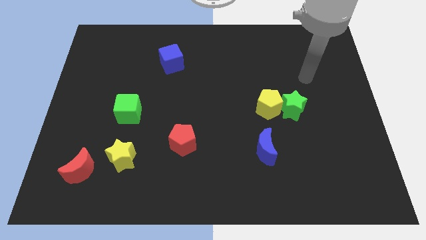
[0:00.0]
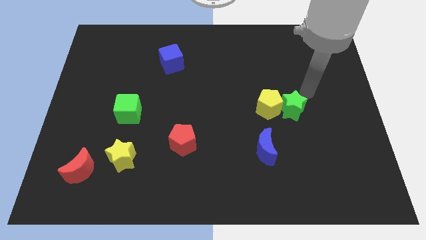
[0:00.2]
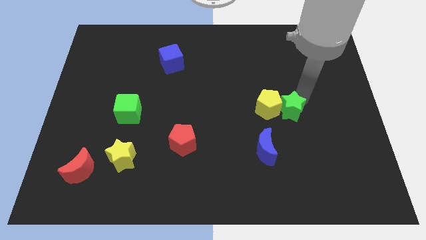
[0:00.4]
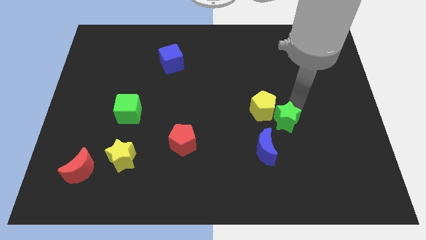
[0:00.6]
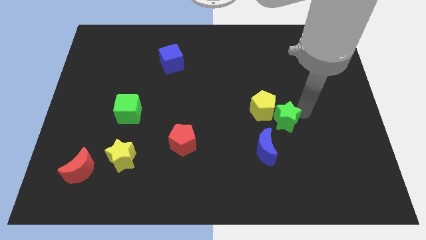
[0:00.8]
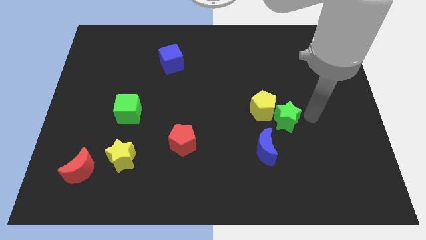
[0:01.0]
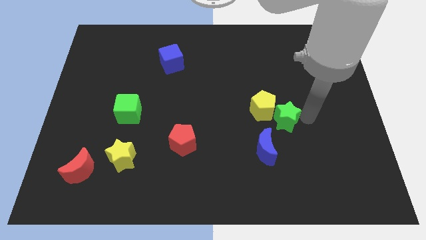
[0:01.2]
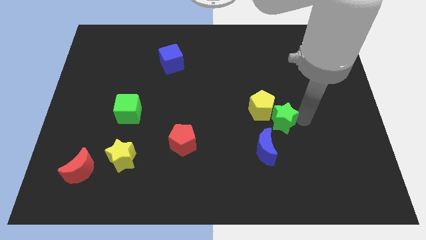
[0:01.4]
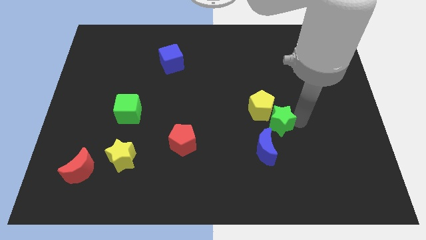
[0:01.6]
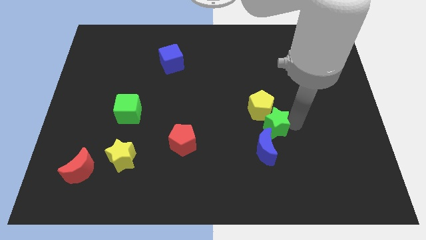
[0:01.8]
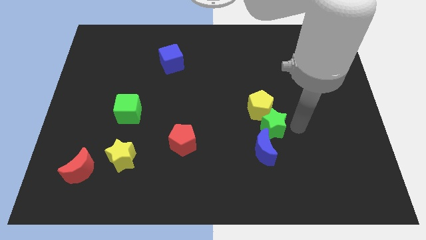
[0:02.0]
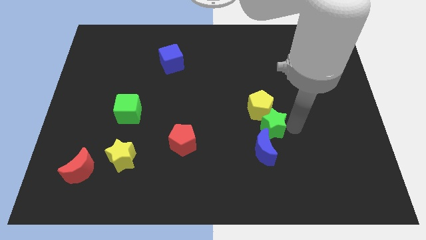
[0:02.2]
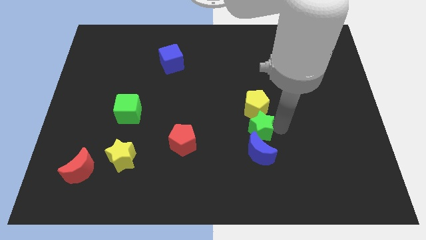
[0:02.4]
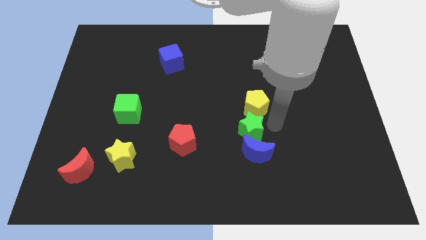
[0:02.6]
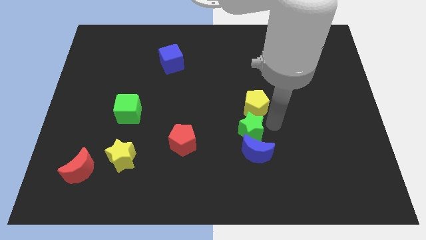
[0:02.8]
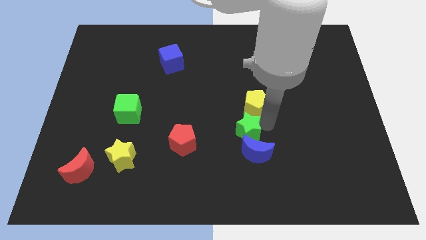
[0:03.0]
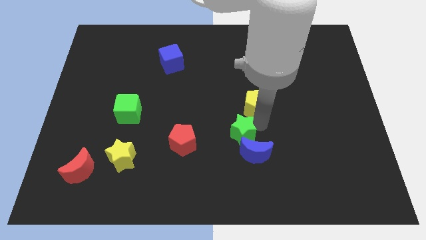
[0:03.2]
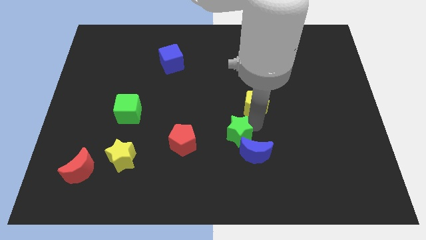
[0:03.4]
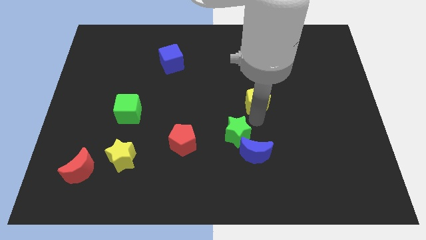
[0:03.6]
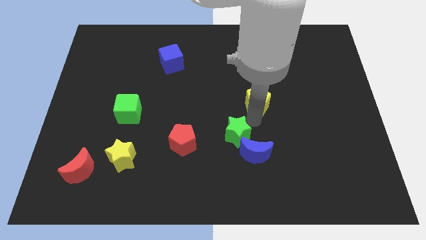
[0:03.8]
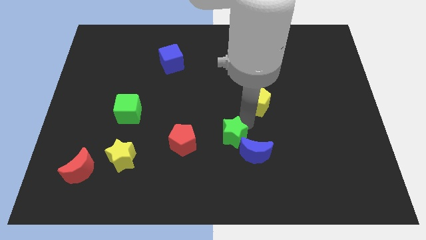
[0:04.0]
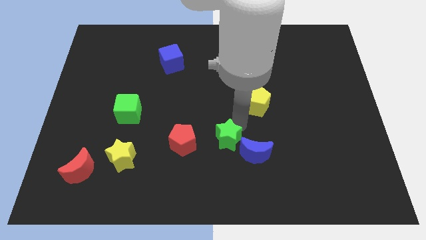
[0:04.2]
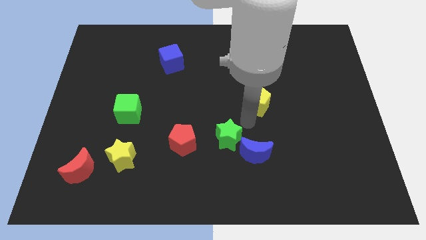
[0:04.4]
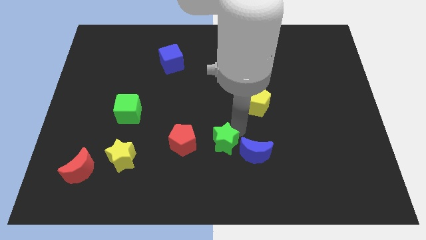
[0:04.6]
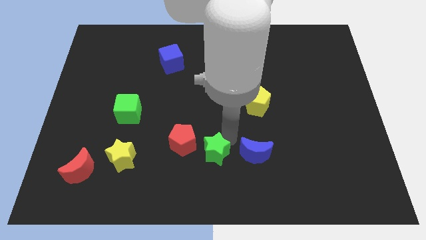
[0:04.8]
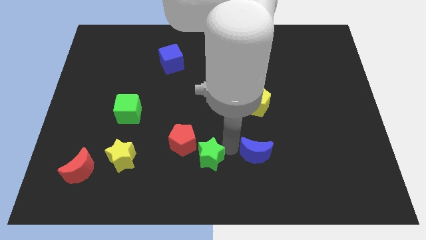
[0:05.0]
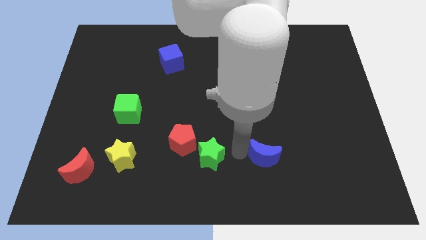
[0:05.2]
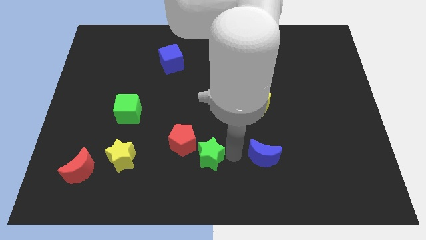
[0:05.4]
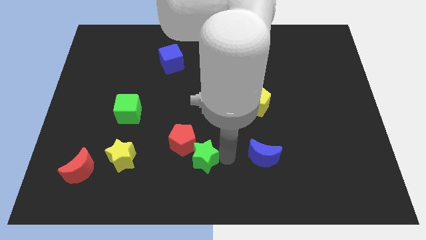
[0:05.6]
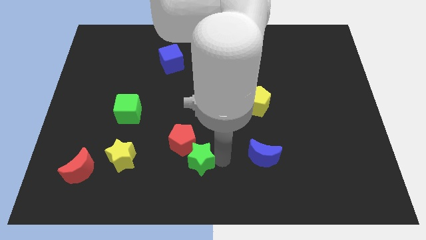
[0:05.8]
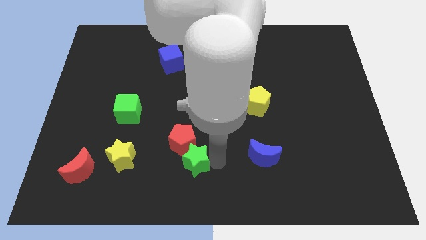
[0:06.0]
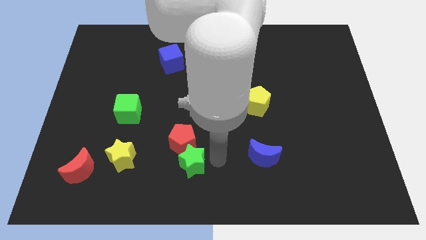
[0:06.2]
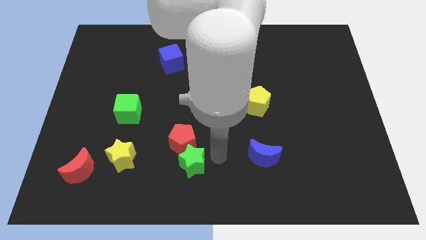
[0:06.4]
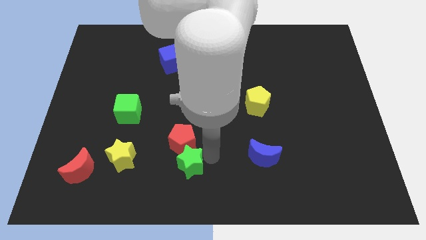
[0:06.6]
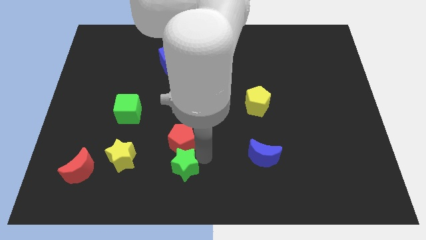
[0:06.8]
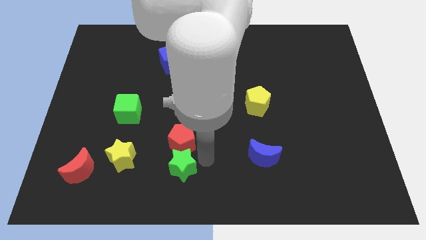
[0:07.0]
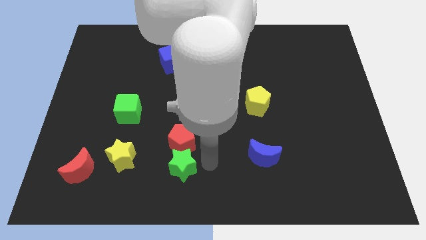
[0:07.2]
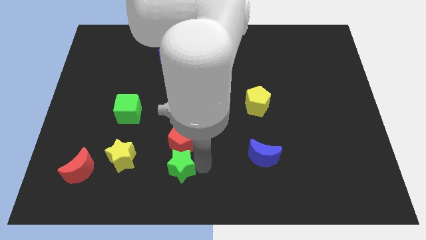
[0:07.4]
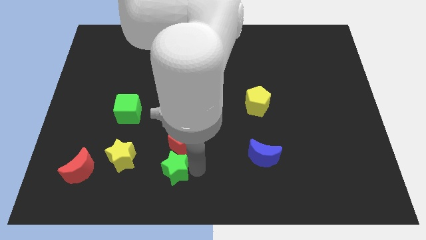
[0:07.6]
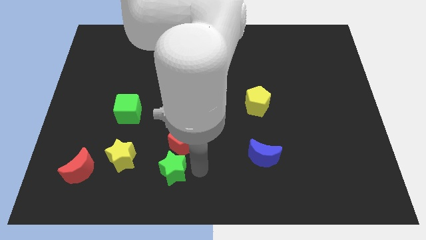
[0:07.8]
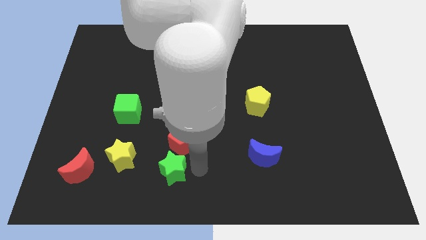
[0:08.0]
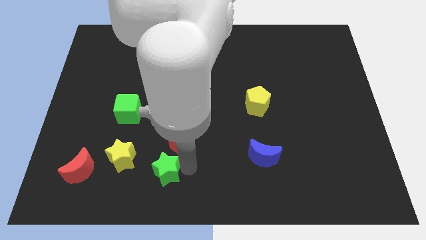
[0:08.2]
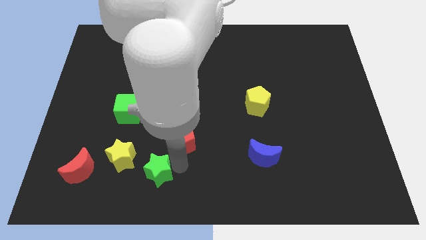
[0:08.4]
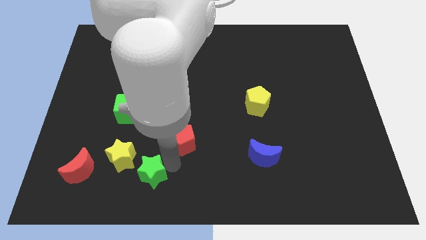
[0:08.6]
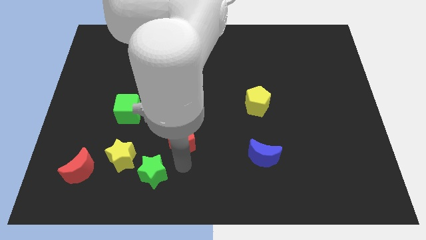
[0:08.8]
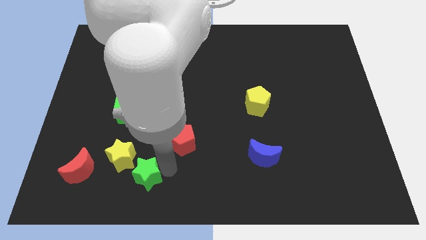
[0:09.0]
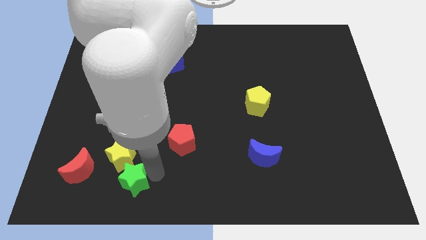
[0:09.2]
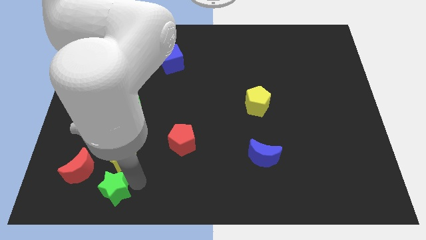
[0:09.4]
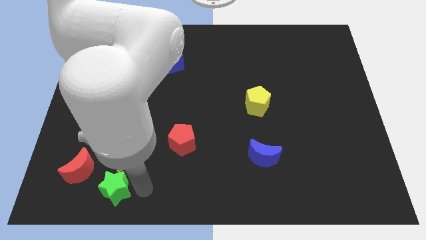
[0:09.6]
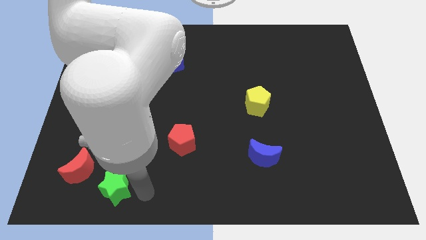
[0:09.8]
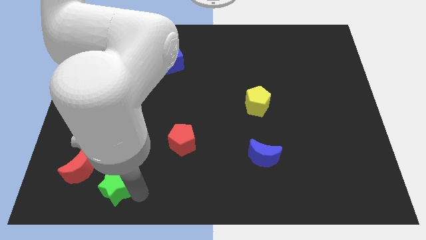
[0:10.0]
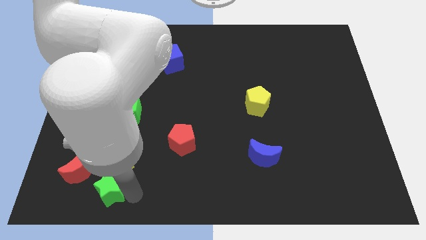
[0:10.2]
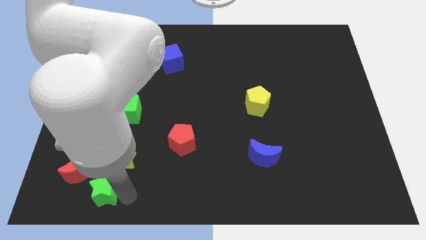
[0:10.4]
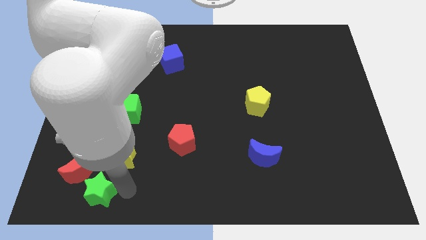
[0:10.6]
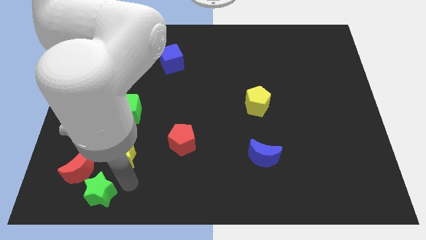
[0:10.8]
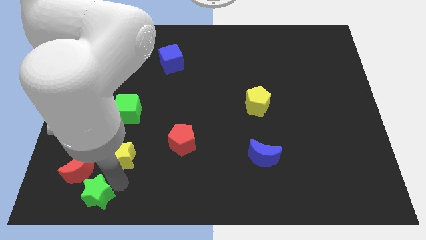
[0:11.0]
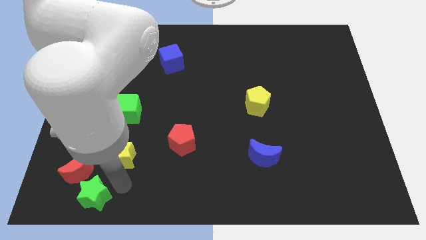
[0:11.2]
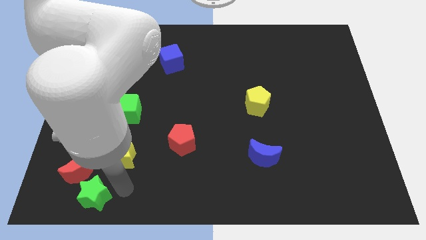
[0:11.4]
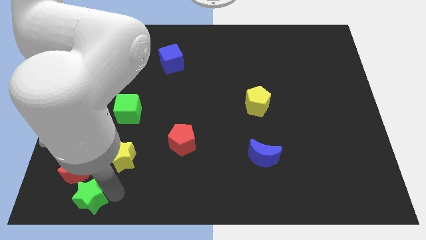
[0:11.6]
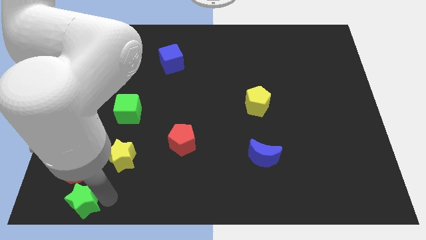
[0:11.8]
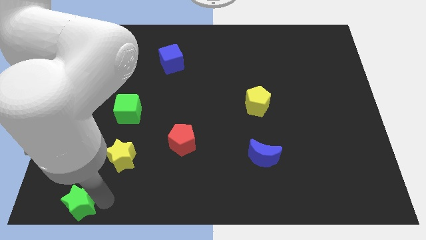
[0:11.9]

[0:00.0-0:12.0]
slide the green star to the bottom left

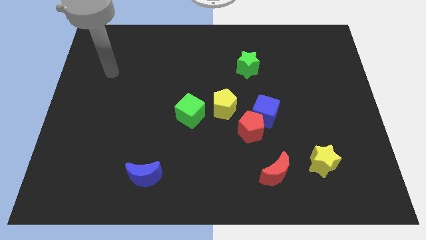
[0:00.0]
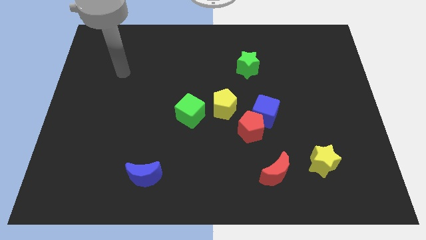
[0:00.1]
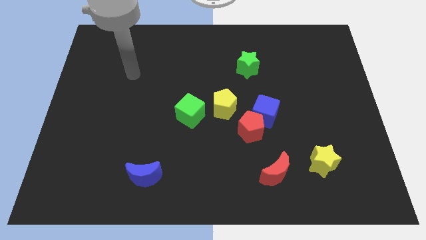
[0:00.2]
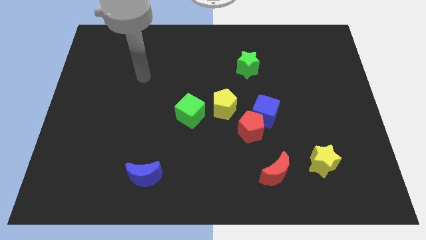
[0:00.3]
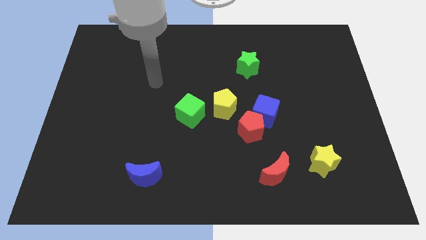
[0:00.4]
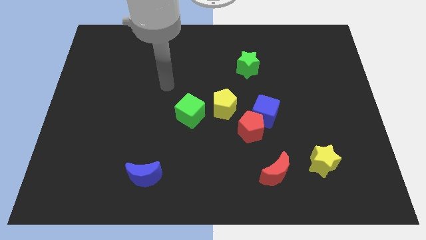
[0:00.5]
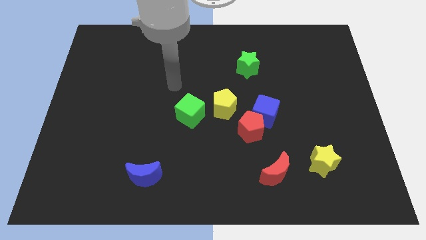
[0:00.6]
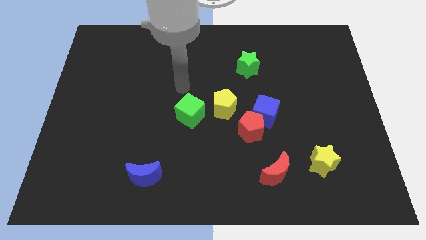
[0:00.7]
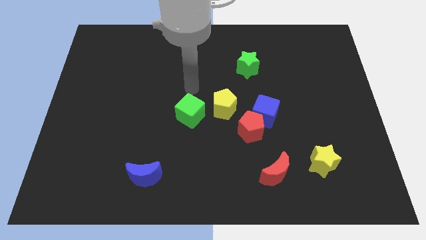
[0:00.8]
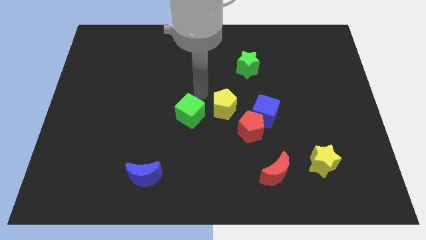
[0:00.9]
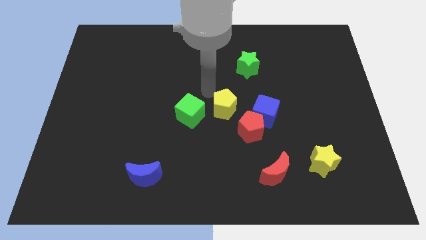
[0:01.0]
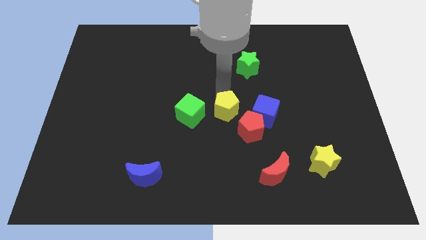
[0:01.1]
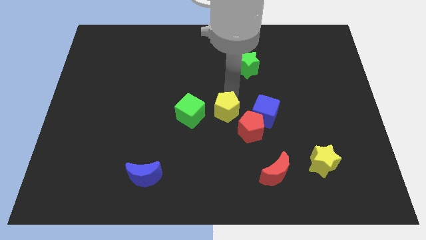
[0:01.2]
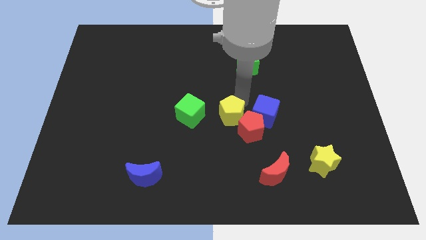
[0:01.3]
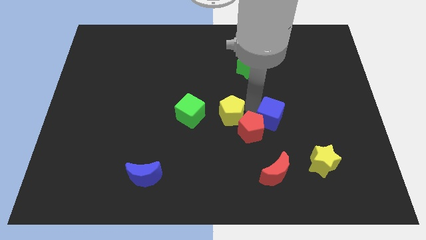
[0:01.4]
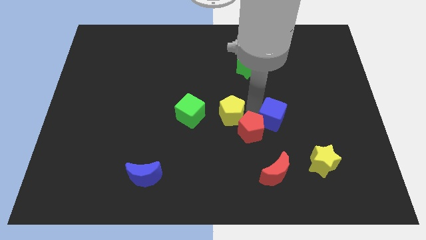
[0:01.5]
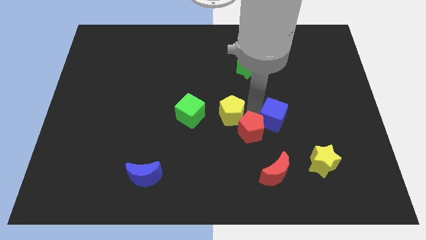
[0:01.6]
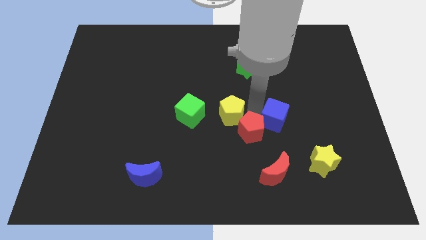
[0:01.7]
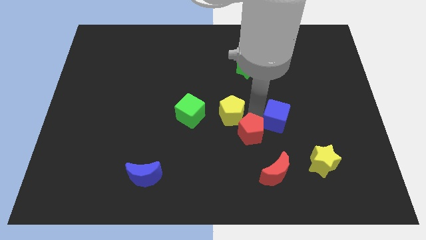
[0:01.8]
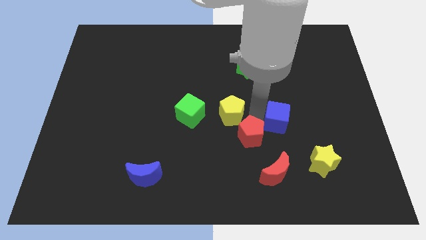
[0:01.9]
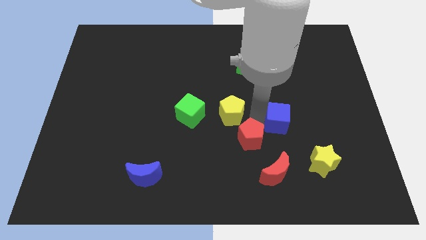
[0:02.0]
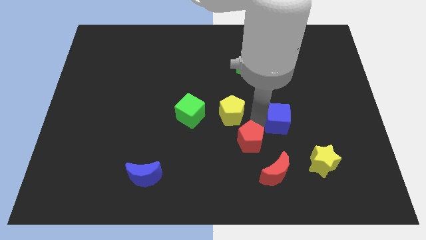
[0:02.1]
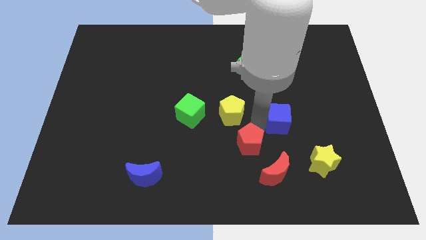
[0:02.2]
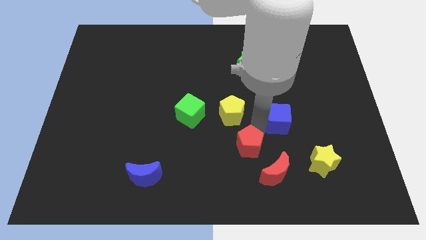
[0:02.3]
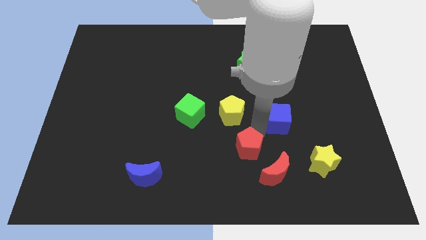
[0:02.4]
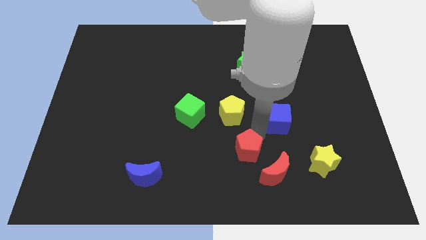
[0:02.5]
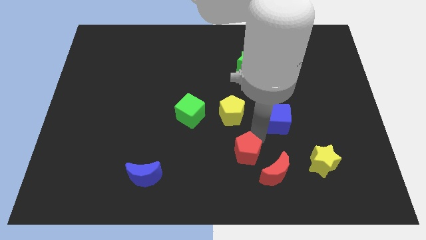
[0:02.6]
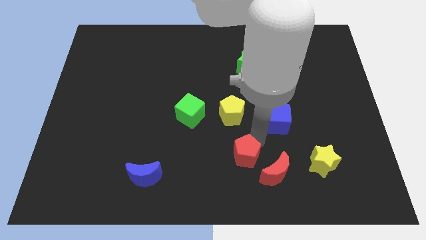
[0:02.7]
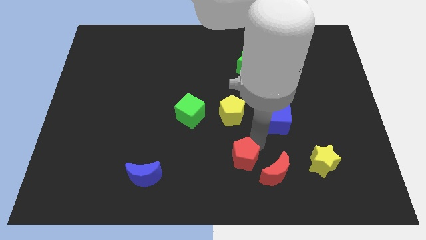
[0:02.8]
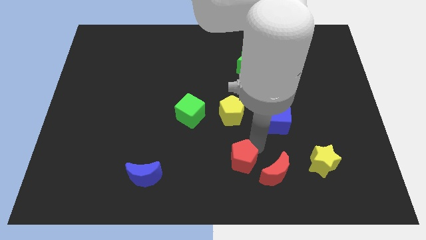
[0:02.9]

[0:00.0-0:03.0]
move the red pentagon to the bottom side
